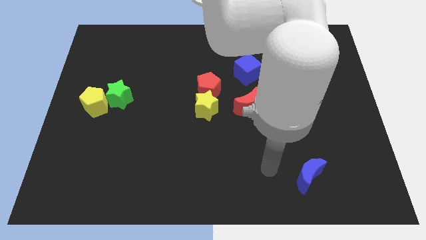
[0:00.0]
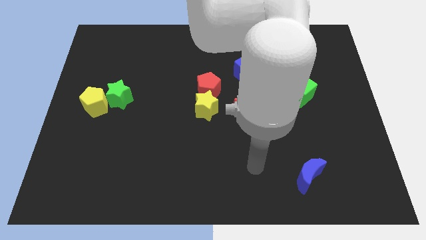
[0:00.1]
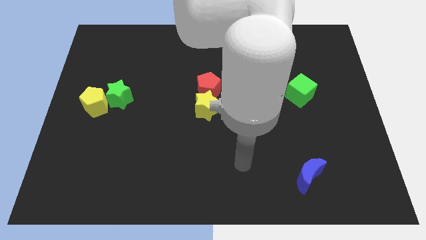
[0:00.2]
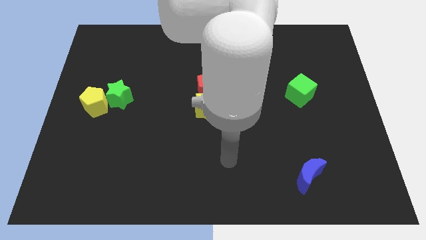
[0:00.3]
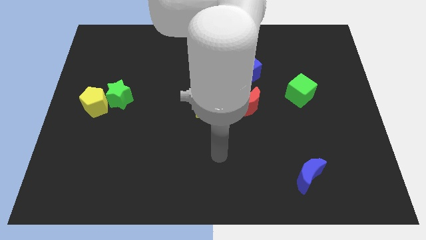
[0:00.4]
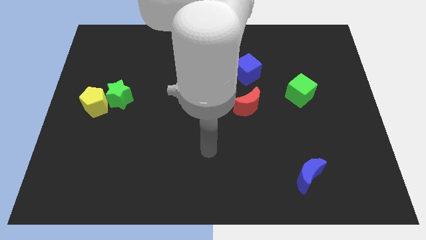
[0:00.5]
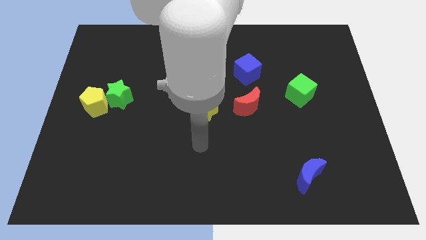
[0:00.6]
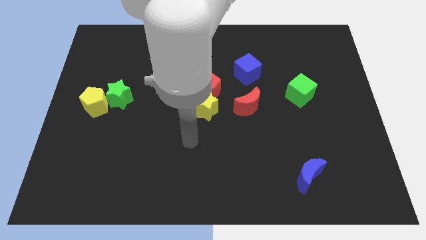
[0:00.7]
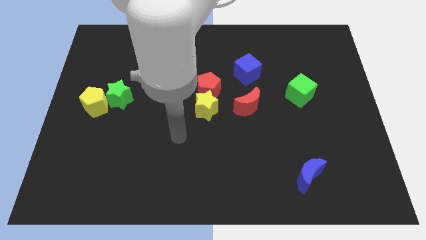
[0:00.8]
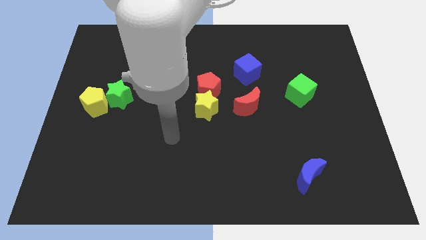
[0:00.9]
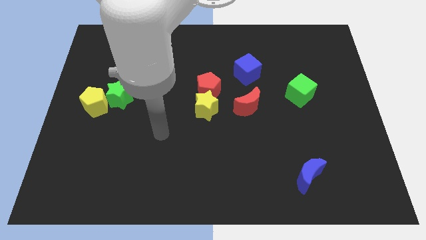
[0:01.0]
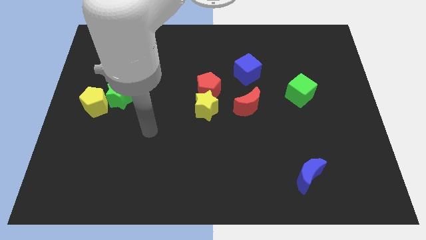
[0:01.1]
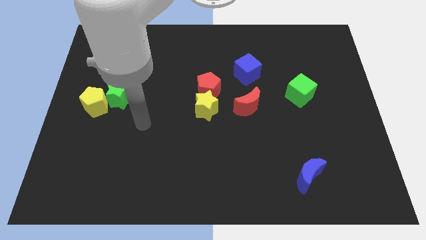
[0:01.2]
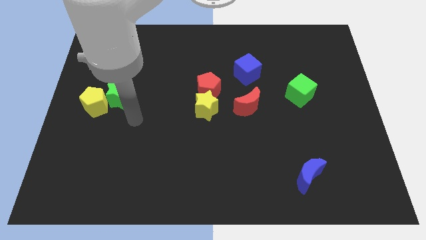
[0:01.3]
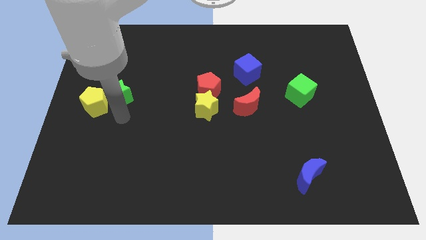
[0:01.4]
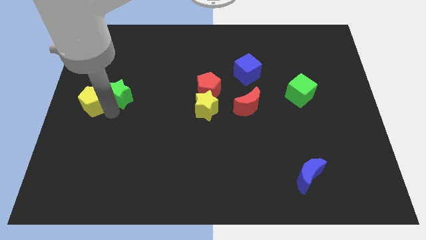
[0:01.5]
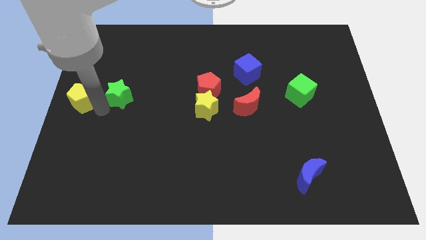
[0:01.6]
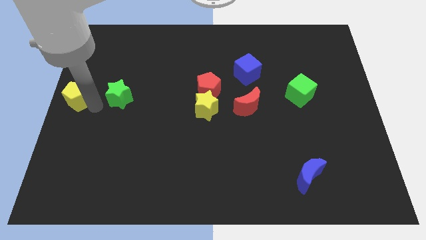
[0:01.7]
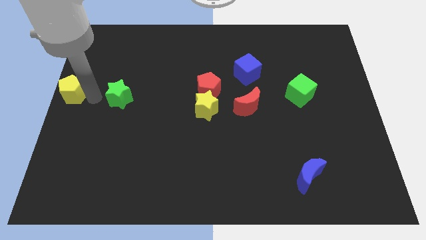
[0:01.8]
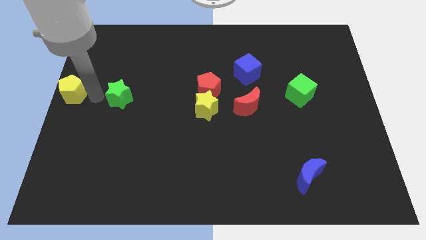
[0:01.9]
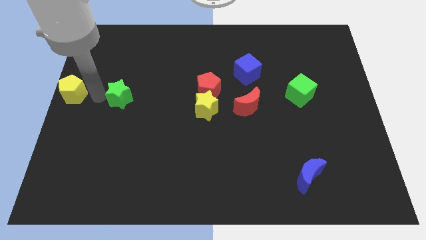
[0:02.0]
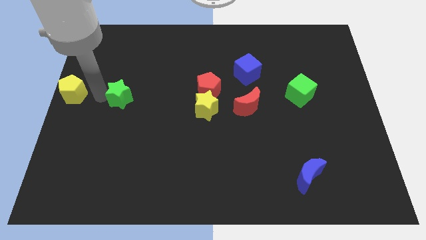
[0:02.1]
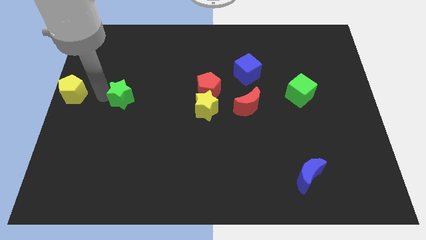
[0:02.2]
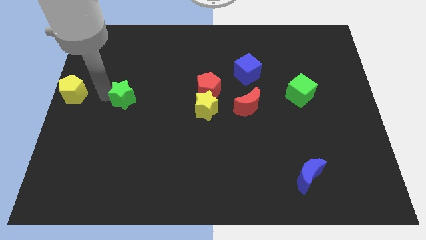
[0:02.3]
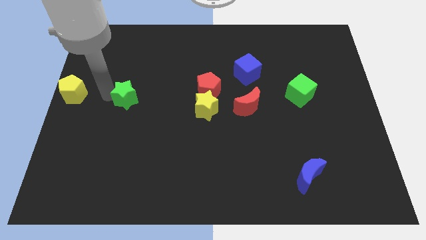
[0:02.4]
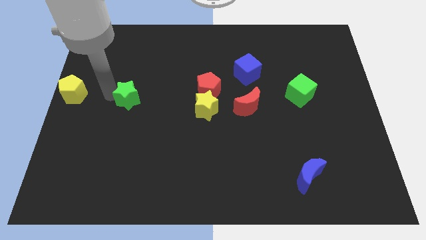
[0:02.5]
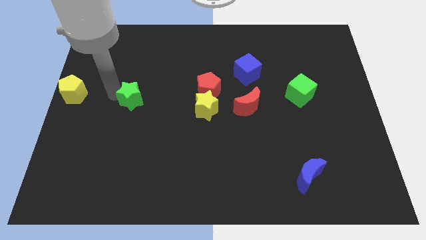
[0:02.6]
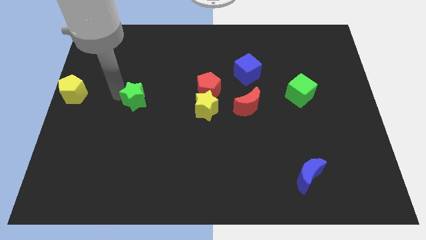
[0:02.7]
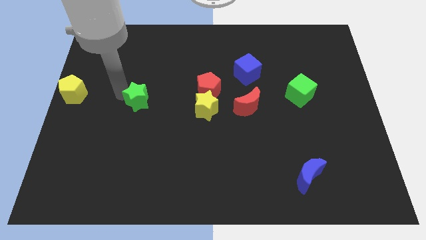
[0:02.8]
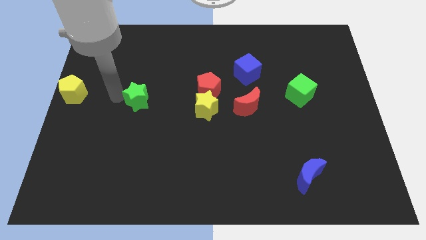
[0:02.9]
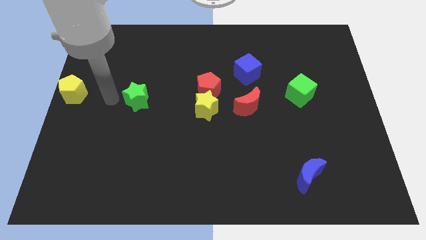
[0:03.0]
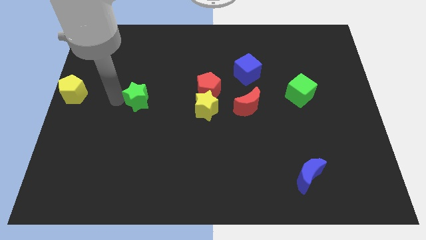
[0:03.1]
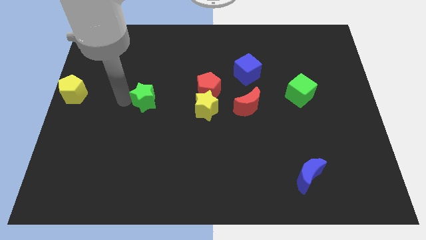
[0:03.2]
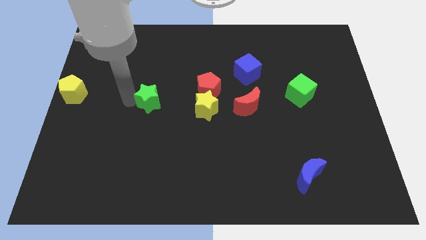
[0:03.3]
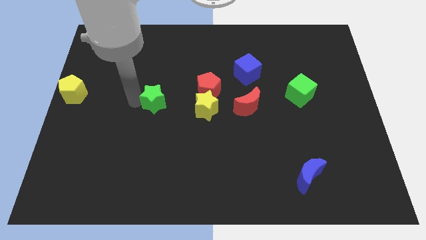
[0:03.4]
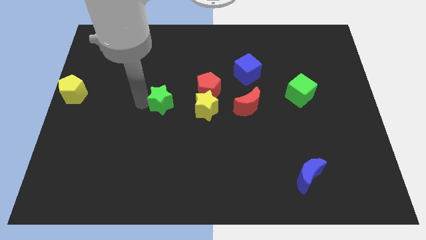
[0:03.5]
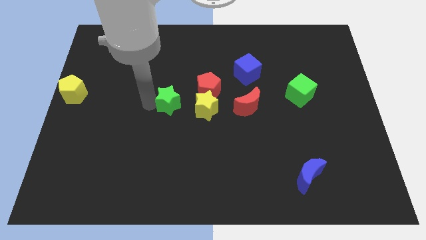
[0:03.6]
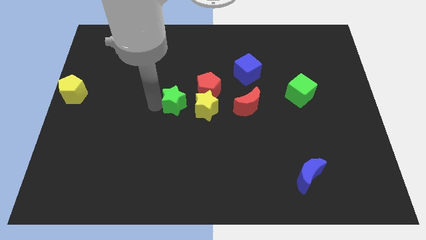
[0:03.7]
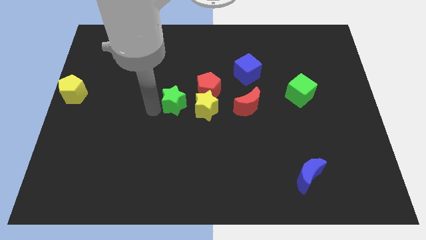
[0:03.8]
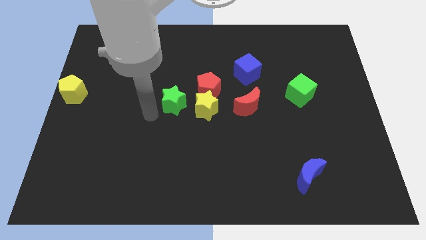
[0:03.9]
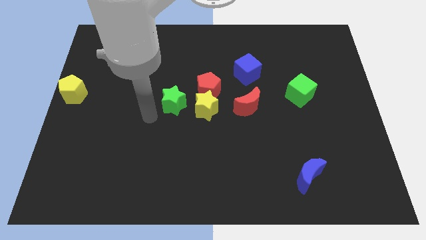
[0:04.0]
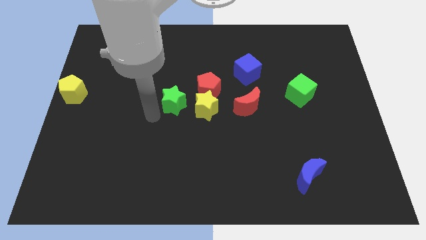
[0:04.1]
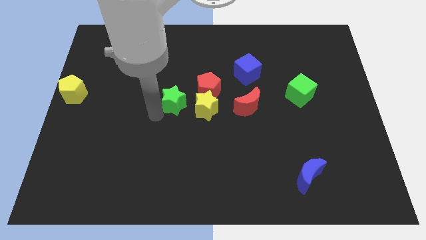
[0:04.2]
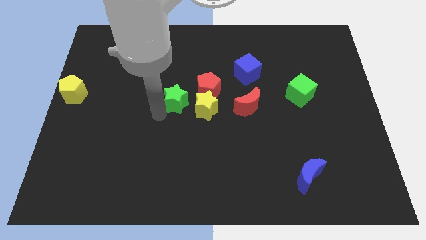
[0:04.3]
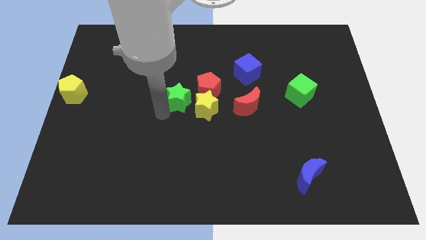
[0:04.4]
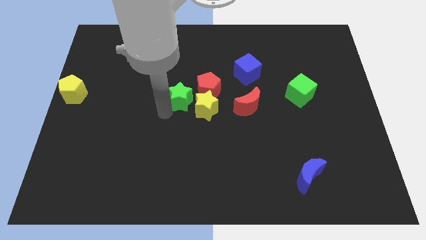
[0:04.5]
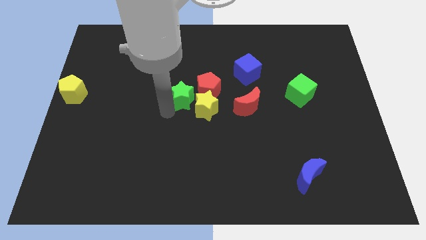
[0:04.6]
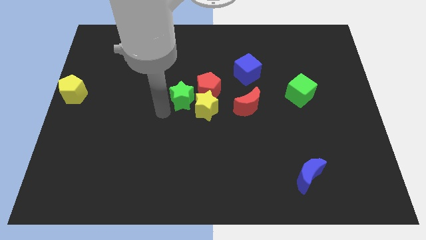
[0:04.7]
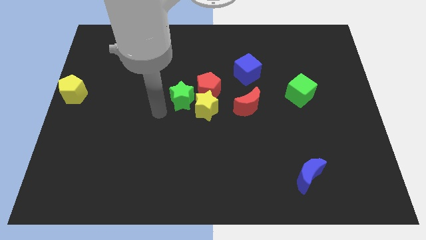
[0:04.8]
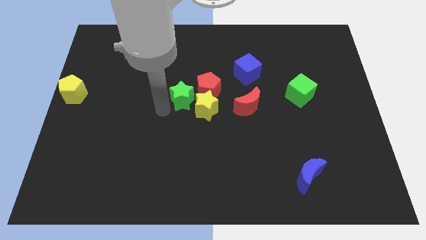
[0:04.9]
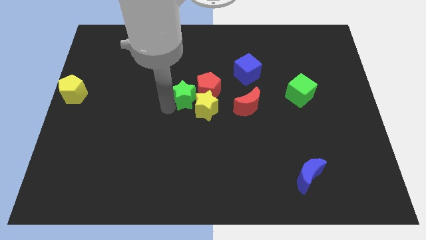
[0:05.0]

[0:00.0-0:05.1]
slide the green star to the red pentagon

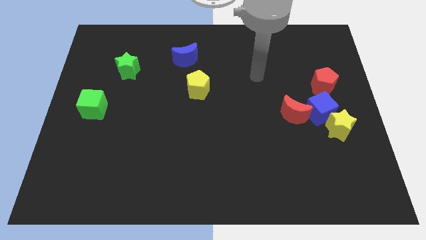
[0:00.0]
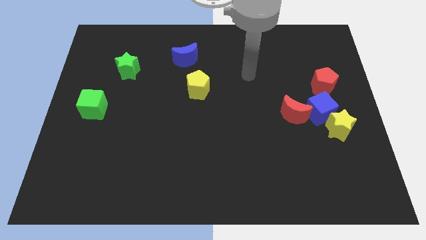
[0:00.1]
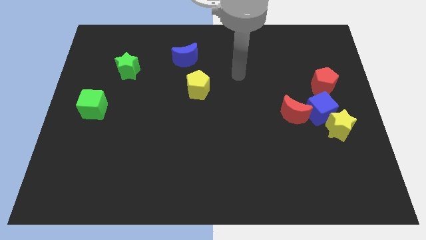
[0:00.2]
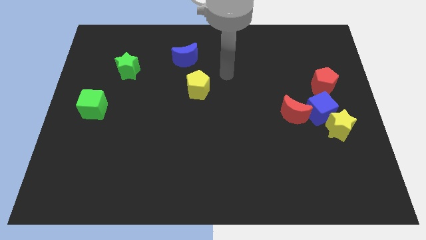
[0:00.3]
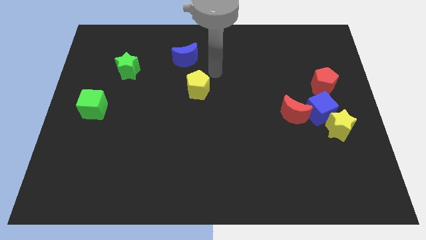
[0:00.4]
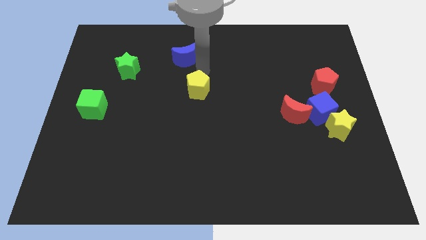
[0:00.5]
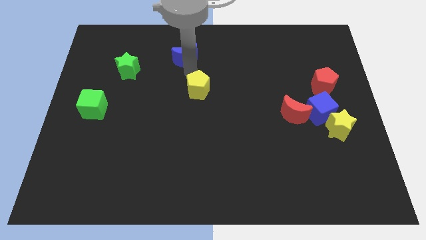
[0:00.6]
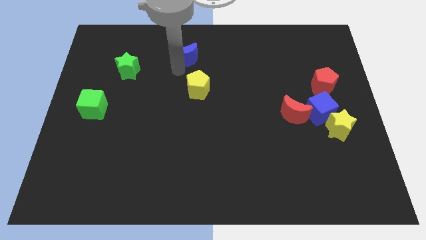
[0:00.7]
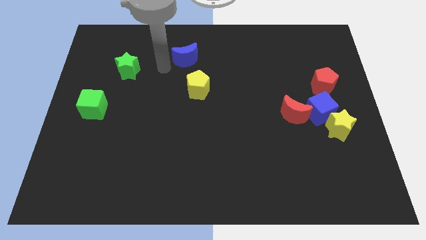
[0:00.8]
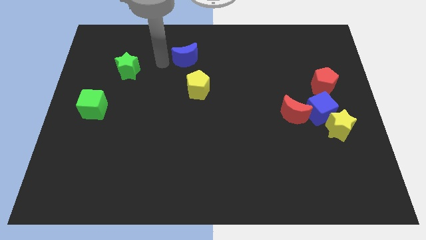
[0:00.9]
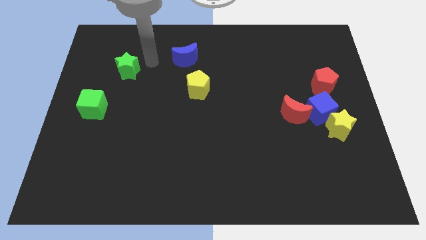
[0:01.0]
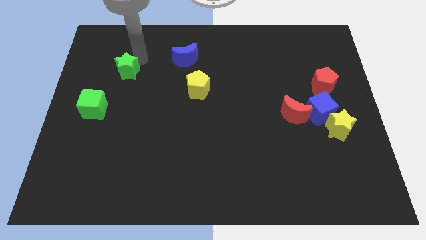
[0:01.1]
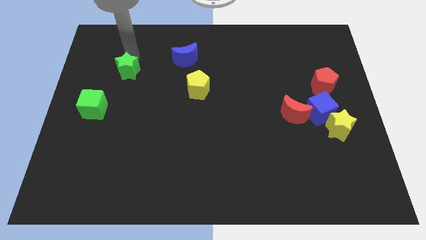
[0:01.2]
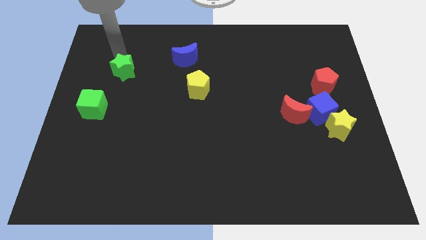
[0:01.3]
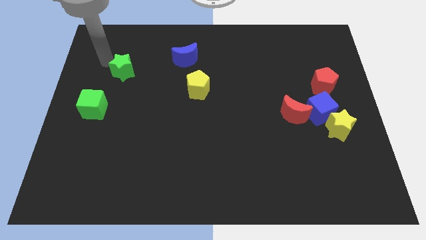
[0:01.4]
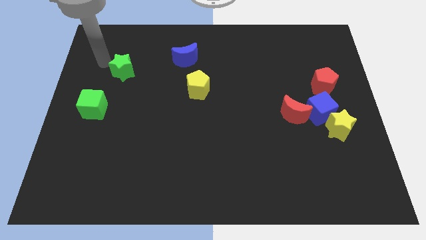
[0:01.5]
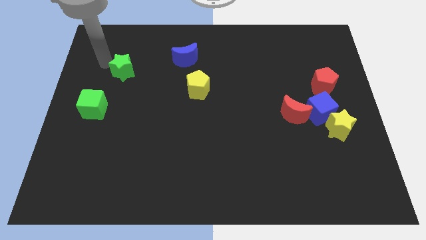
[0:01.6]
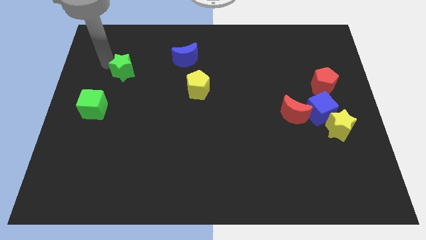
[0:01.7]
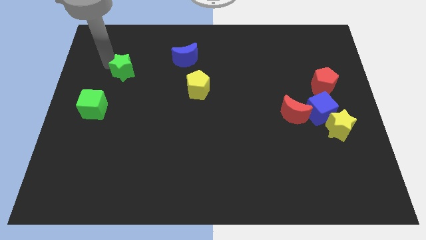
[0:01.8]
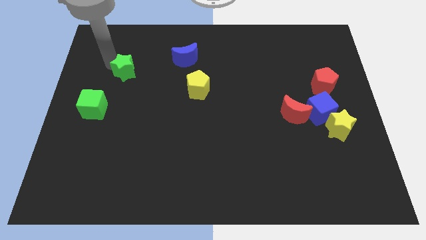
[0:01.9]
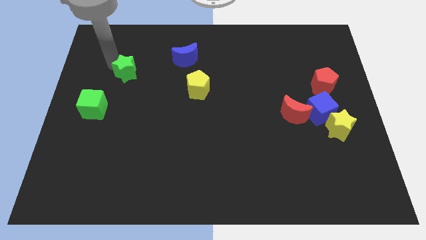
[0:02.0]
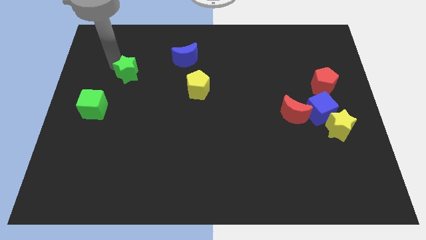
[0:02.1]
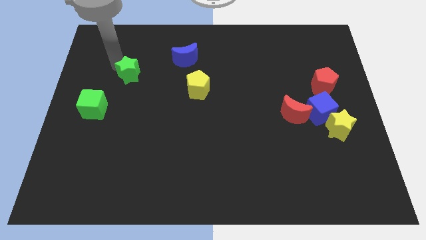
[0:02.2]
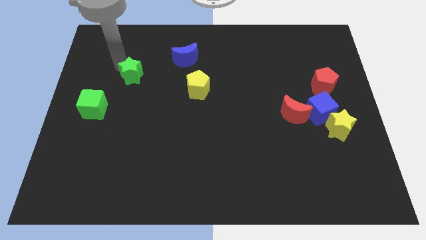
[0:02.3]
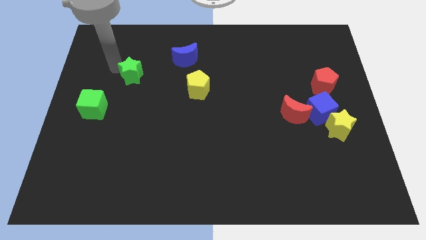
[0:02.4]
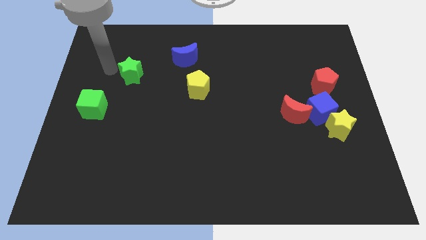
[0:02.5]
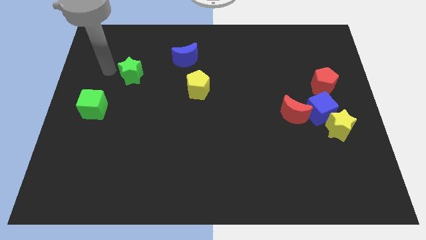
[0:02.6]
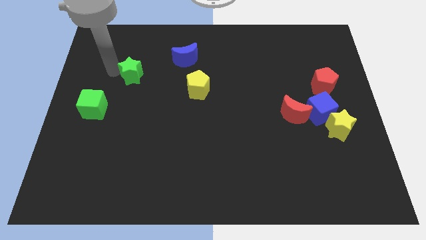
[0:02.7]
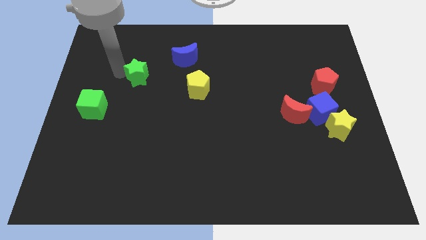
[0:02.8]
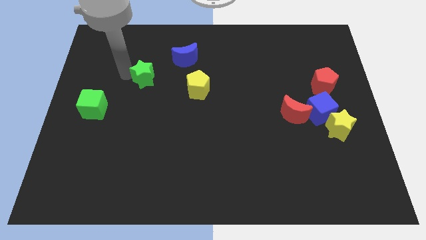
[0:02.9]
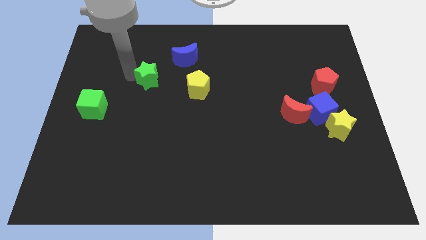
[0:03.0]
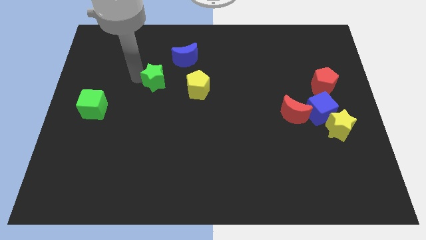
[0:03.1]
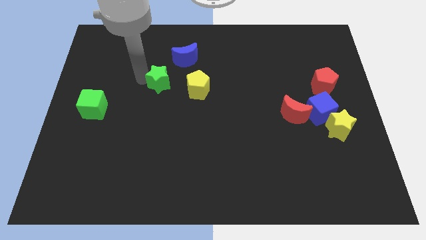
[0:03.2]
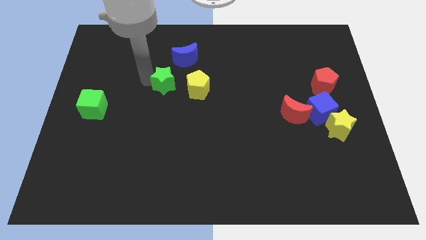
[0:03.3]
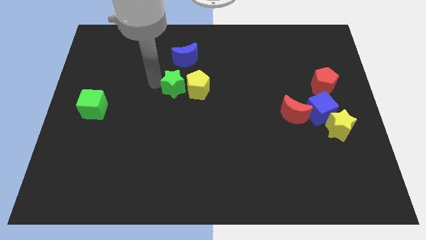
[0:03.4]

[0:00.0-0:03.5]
put the green star to the yellow pentagon
